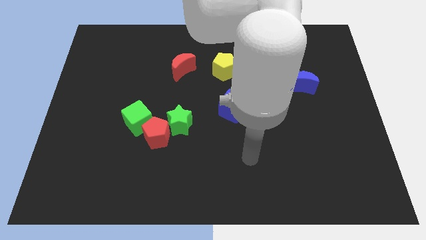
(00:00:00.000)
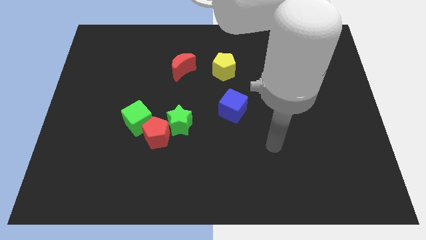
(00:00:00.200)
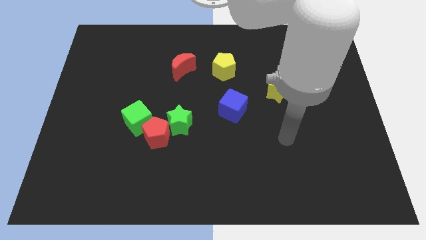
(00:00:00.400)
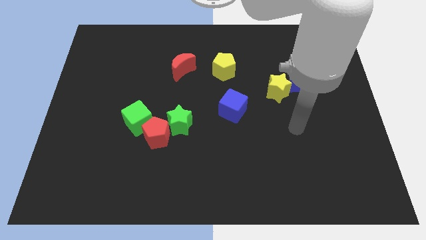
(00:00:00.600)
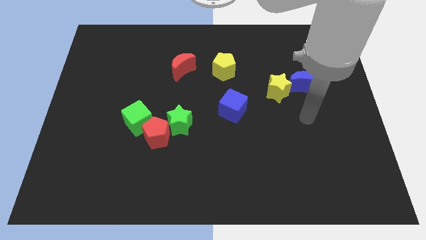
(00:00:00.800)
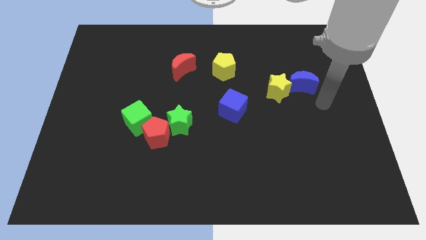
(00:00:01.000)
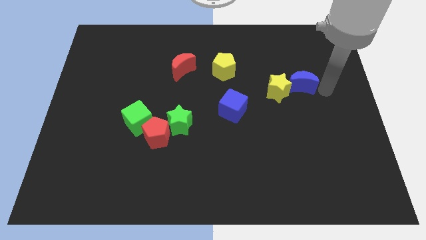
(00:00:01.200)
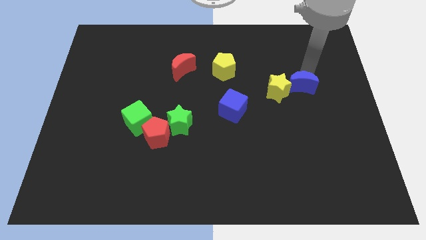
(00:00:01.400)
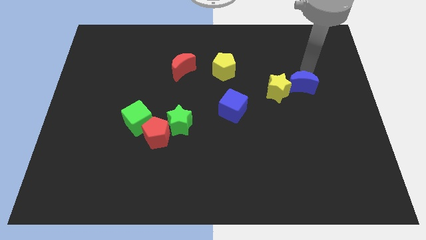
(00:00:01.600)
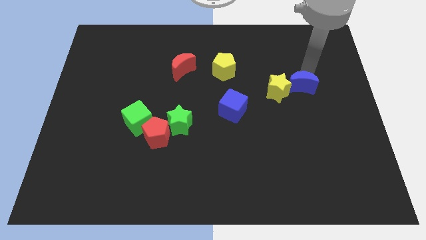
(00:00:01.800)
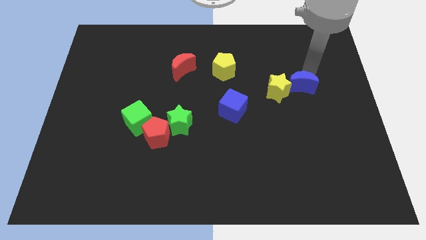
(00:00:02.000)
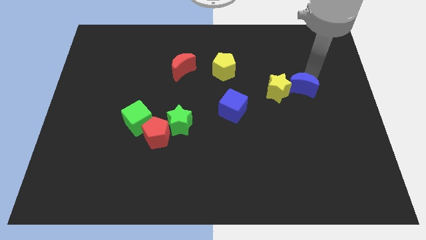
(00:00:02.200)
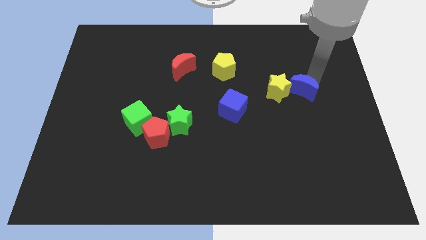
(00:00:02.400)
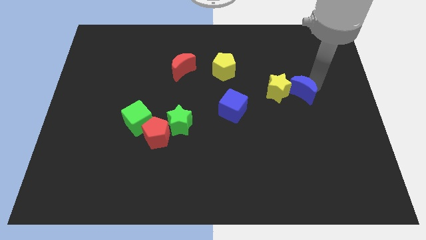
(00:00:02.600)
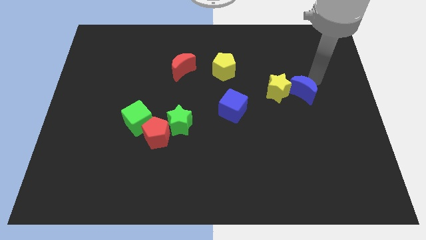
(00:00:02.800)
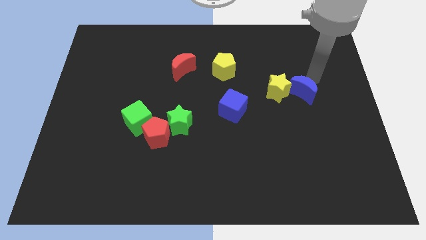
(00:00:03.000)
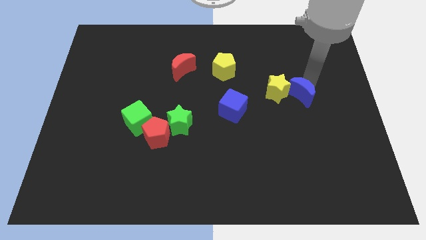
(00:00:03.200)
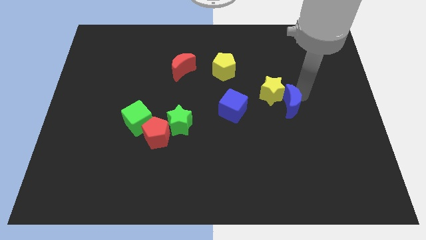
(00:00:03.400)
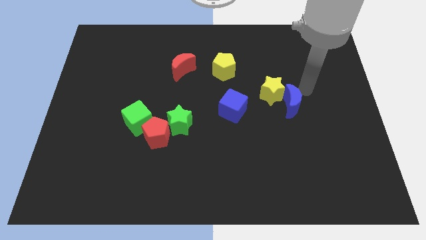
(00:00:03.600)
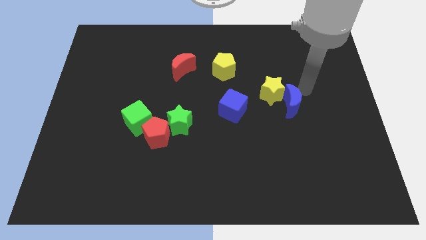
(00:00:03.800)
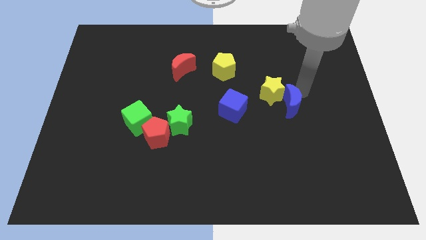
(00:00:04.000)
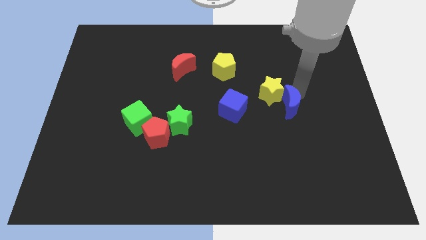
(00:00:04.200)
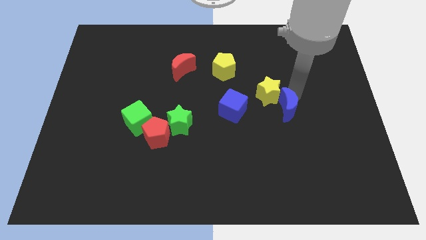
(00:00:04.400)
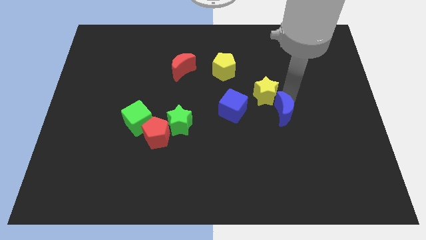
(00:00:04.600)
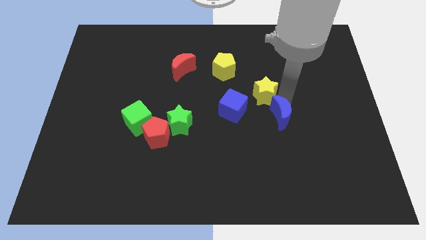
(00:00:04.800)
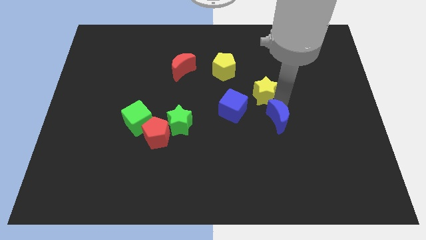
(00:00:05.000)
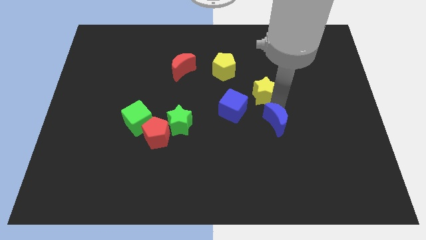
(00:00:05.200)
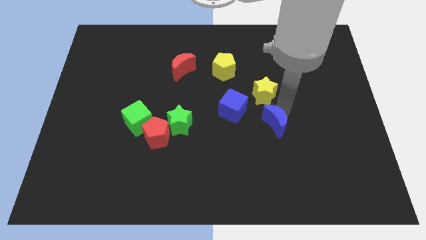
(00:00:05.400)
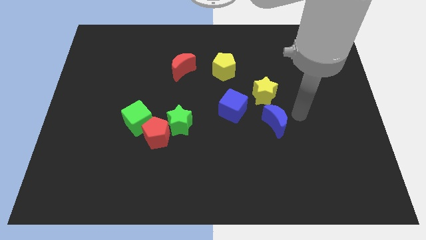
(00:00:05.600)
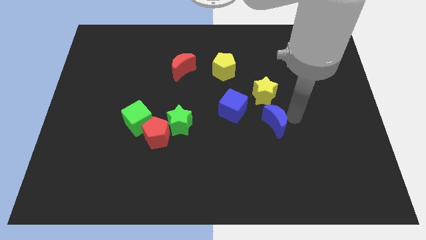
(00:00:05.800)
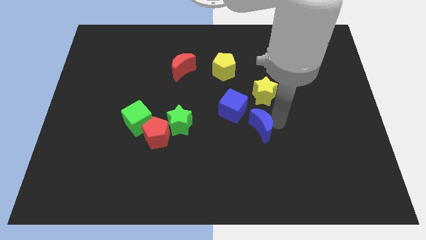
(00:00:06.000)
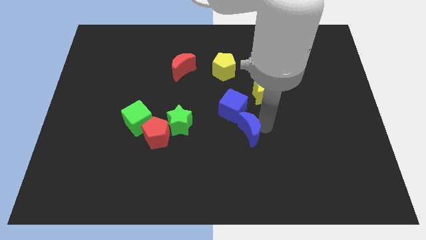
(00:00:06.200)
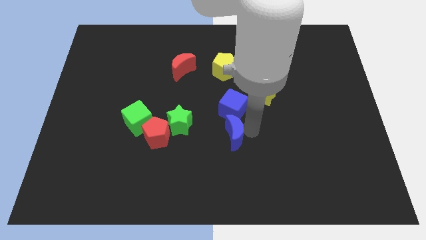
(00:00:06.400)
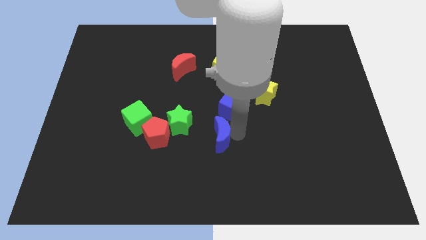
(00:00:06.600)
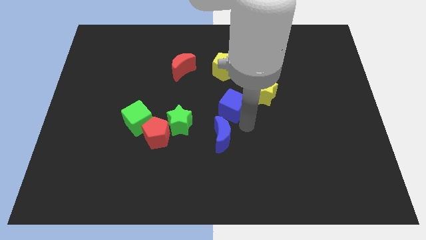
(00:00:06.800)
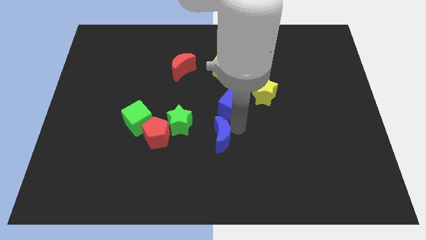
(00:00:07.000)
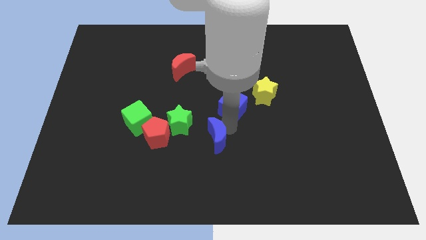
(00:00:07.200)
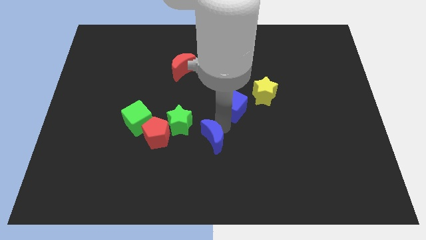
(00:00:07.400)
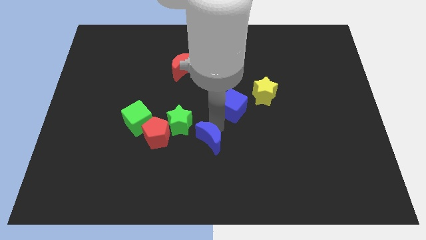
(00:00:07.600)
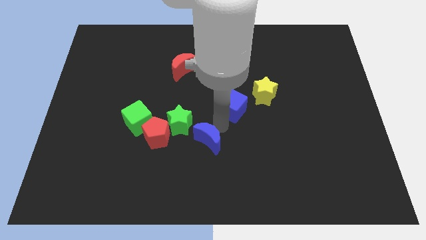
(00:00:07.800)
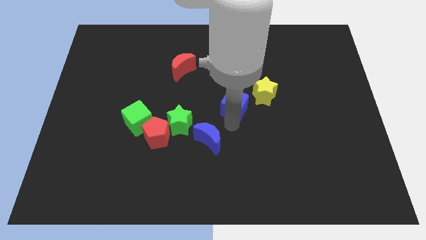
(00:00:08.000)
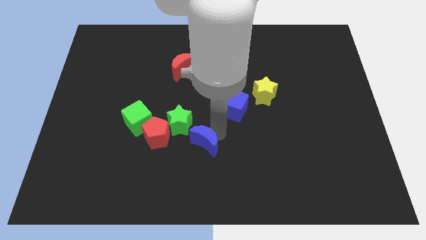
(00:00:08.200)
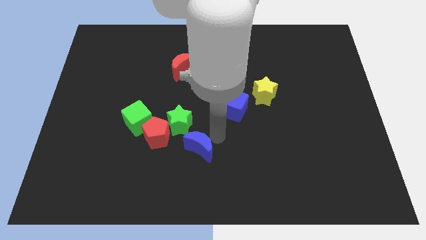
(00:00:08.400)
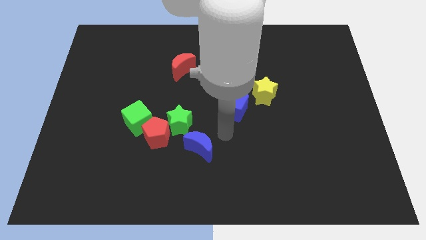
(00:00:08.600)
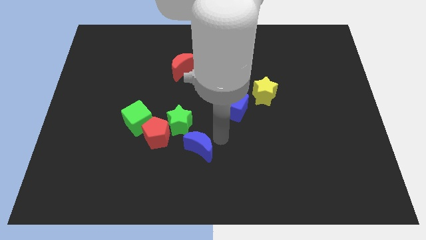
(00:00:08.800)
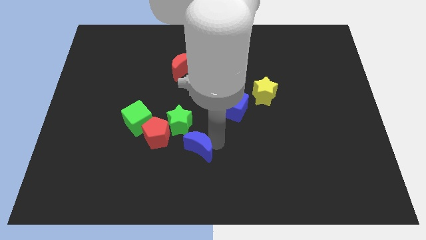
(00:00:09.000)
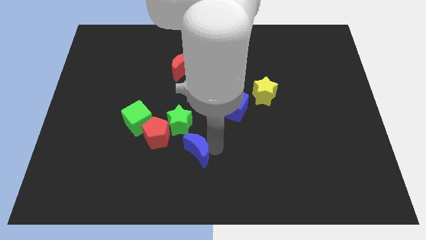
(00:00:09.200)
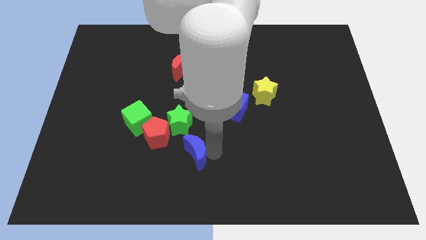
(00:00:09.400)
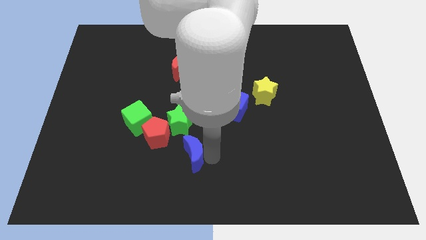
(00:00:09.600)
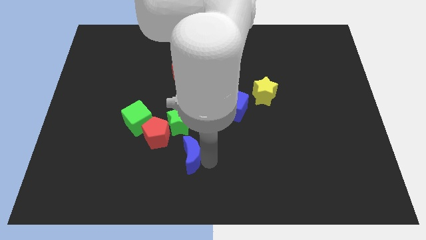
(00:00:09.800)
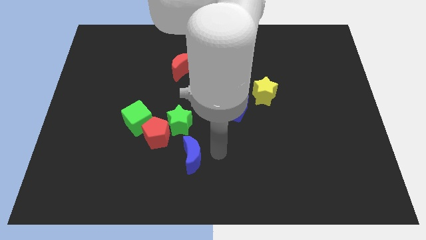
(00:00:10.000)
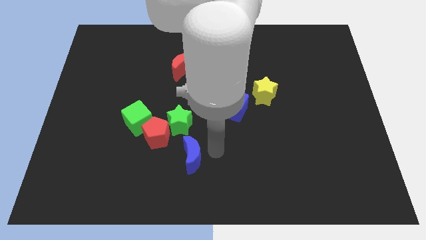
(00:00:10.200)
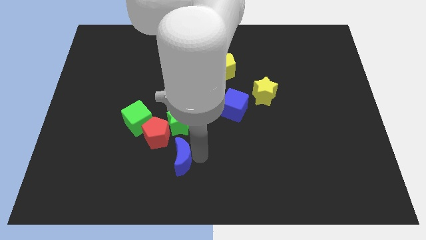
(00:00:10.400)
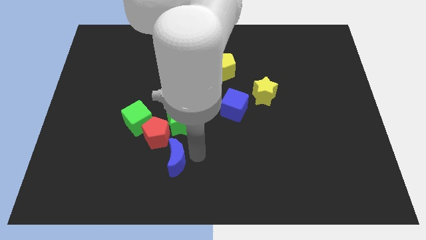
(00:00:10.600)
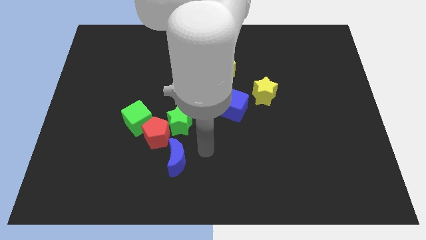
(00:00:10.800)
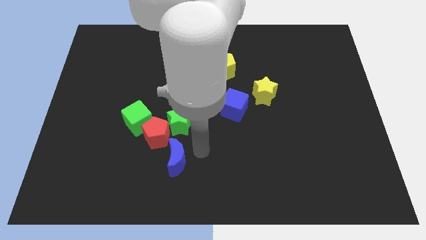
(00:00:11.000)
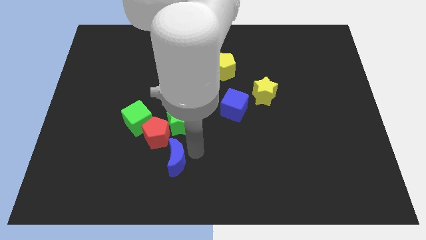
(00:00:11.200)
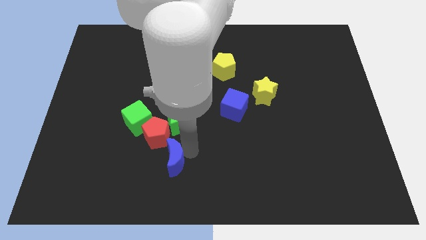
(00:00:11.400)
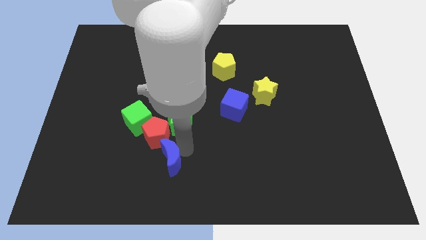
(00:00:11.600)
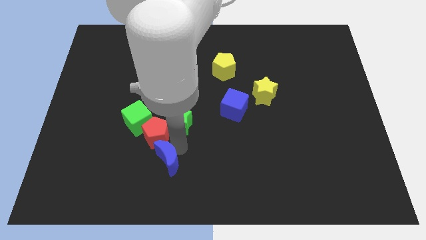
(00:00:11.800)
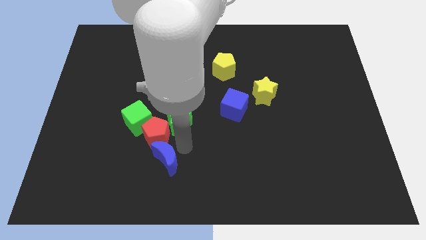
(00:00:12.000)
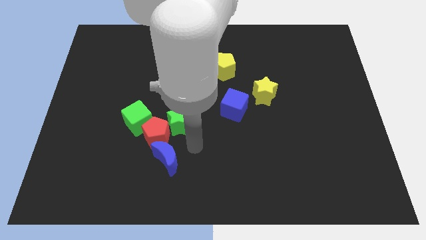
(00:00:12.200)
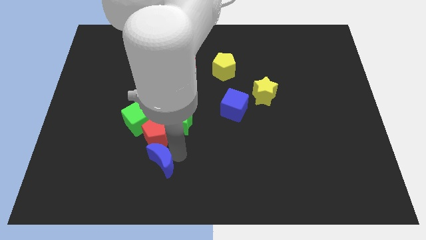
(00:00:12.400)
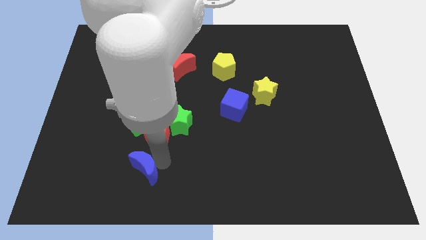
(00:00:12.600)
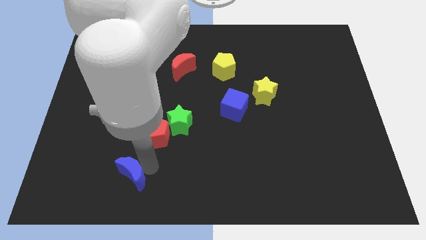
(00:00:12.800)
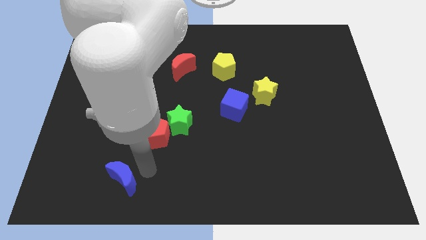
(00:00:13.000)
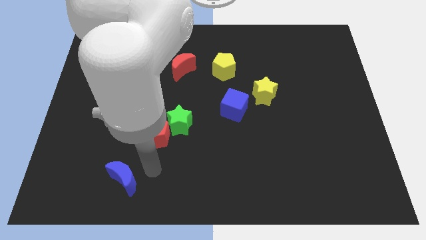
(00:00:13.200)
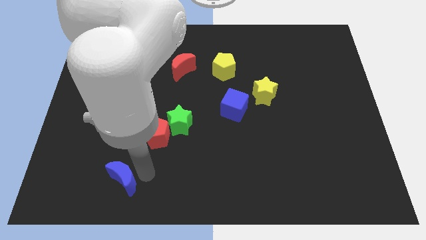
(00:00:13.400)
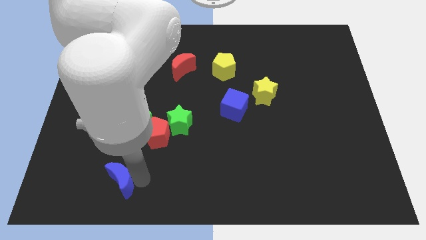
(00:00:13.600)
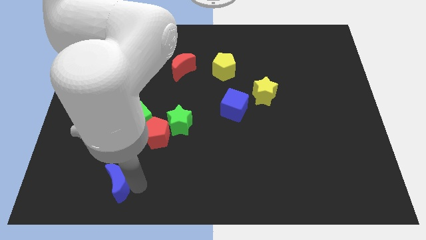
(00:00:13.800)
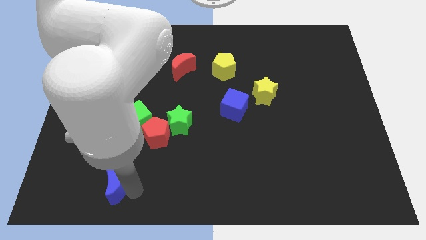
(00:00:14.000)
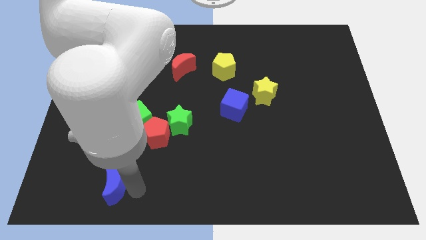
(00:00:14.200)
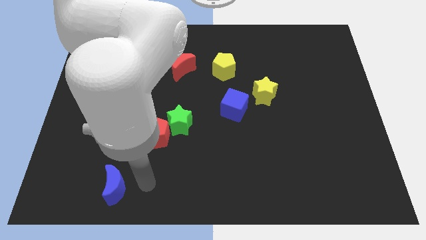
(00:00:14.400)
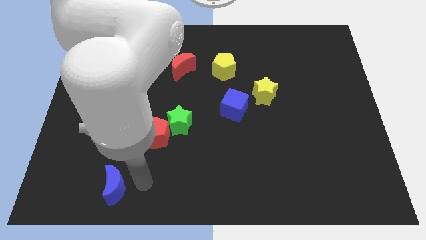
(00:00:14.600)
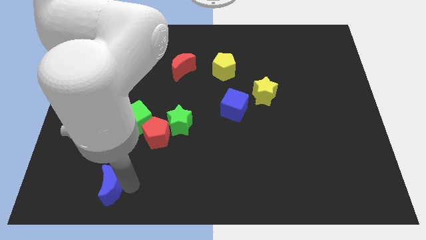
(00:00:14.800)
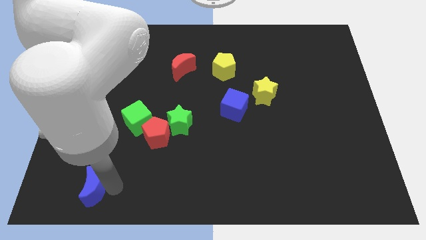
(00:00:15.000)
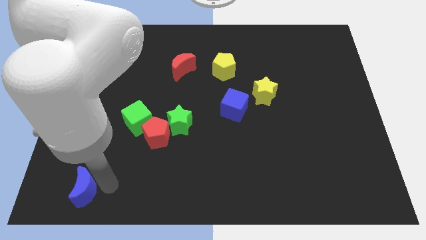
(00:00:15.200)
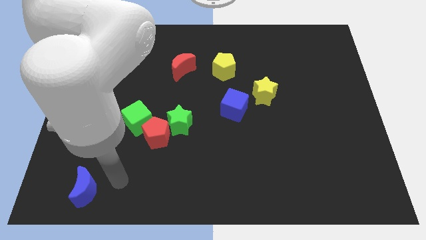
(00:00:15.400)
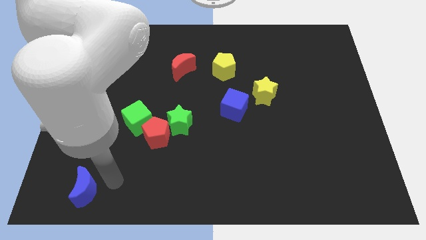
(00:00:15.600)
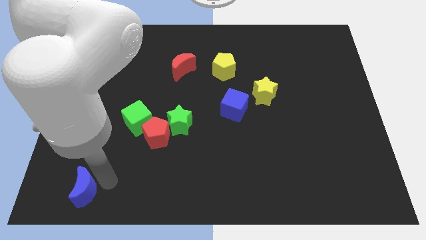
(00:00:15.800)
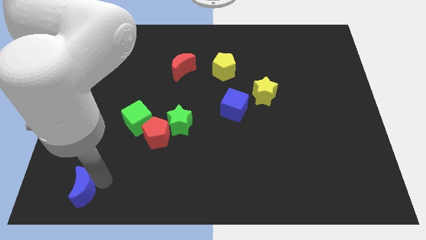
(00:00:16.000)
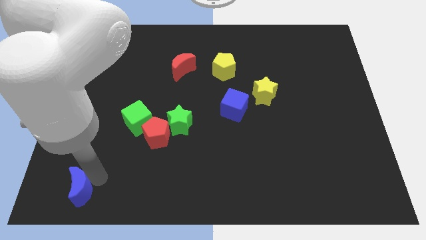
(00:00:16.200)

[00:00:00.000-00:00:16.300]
push the blue moon to the bottom left corner
